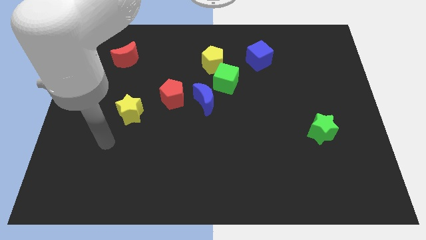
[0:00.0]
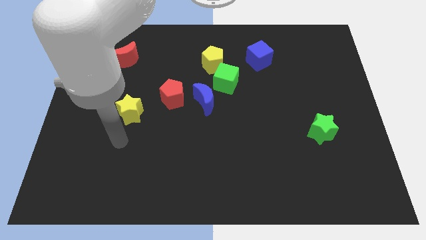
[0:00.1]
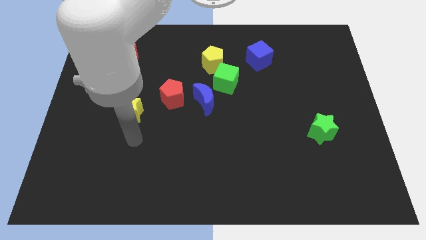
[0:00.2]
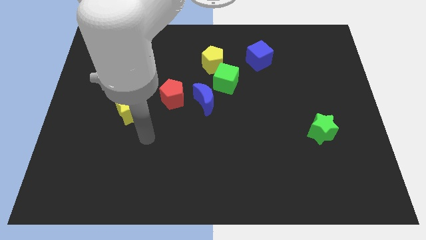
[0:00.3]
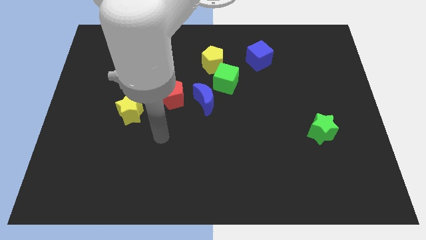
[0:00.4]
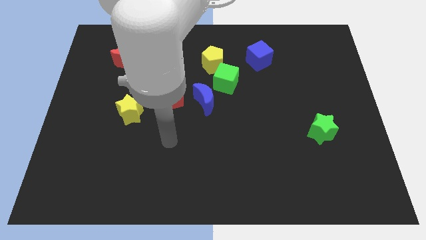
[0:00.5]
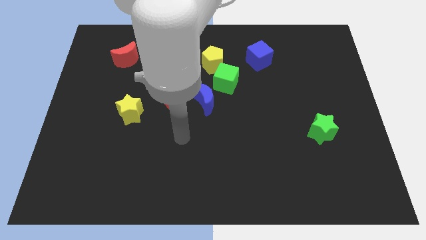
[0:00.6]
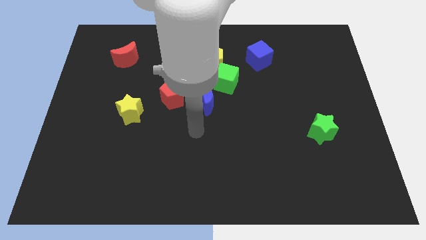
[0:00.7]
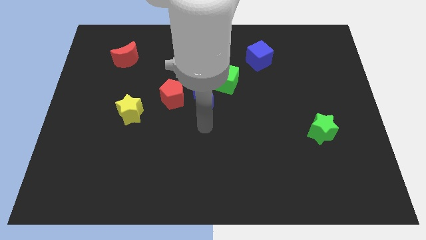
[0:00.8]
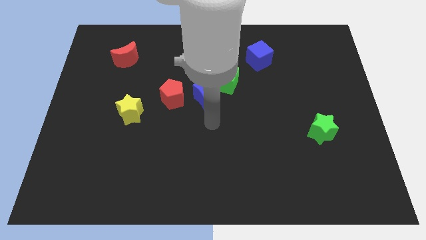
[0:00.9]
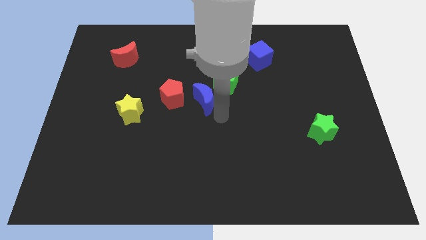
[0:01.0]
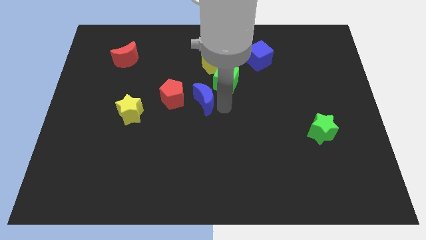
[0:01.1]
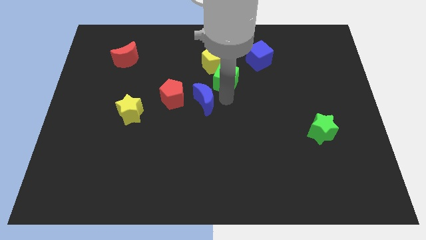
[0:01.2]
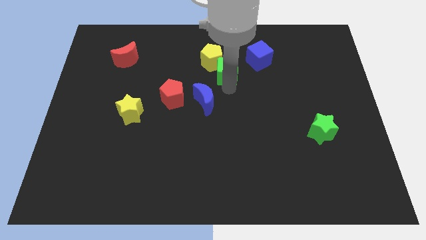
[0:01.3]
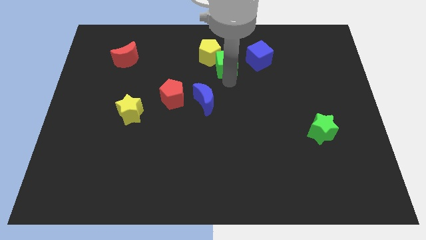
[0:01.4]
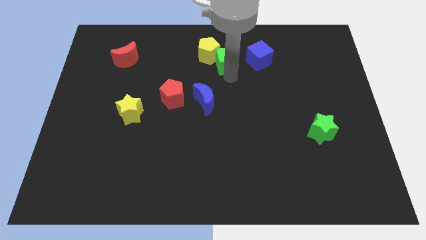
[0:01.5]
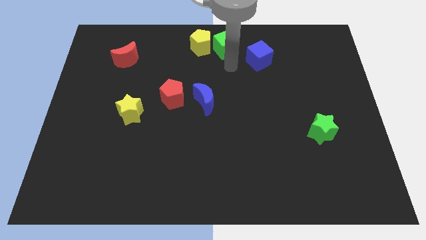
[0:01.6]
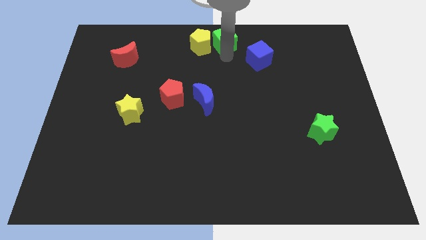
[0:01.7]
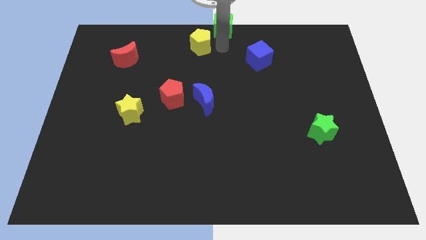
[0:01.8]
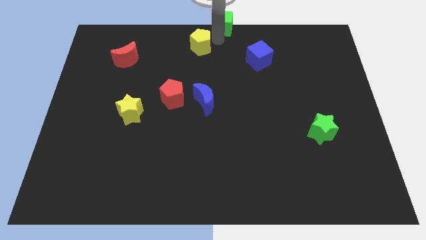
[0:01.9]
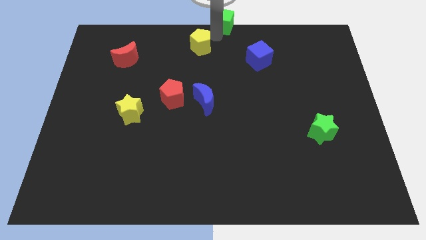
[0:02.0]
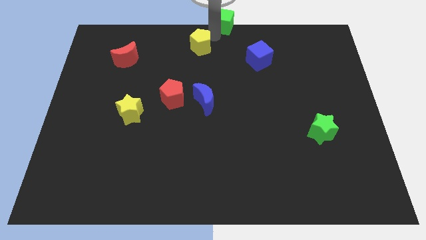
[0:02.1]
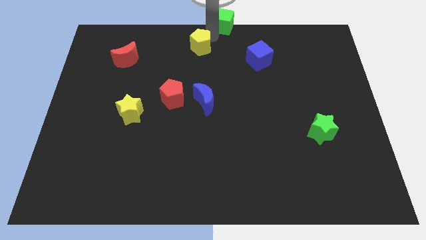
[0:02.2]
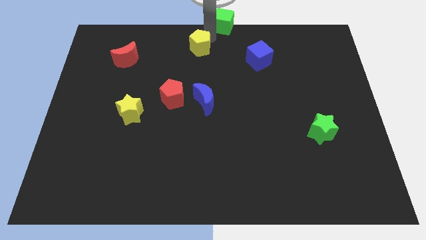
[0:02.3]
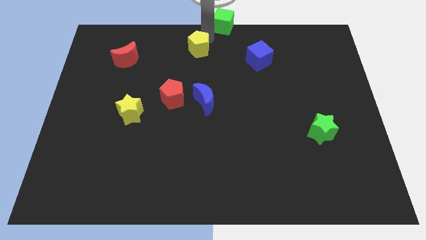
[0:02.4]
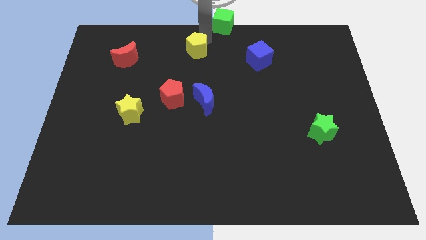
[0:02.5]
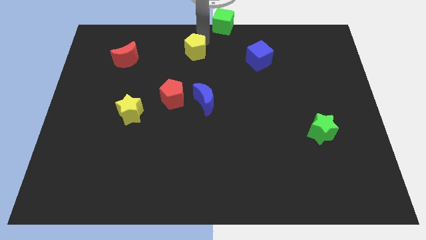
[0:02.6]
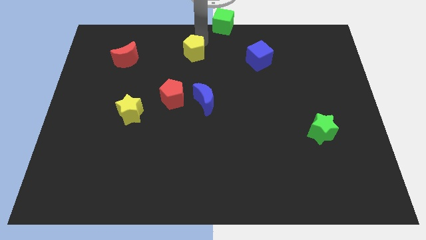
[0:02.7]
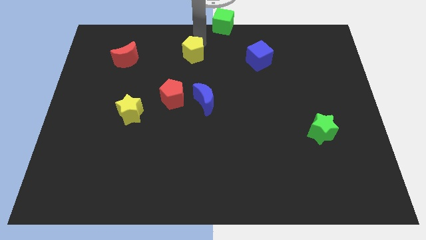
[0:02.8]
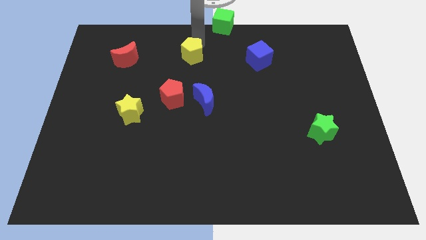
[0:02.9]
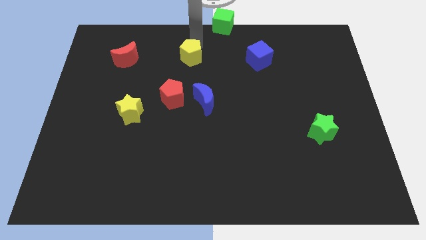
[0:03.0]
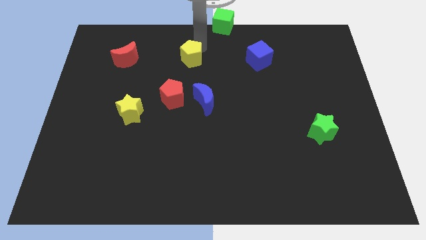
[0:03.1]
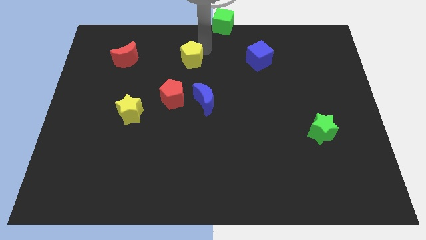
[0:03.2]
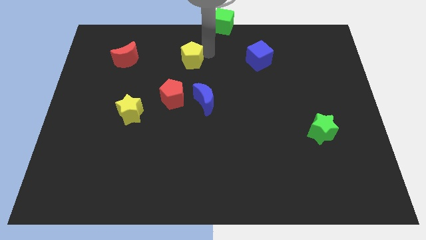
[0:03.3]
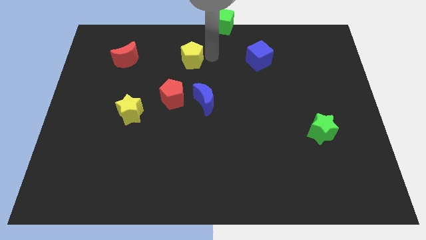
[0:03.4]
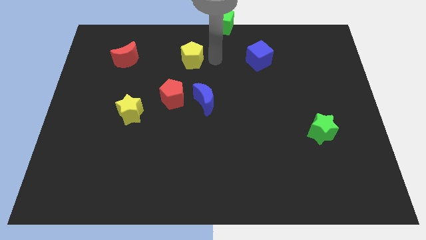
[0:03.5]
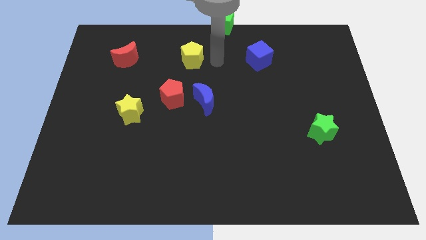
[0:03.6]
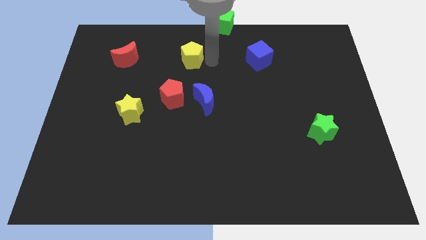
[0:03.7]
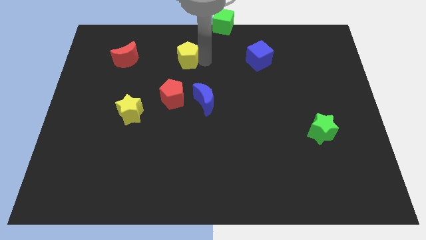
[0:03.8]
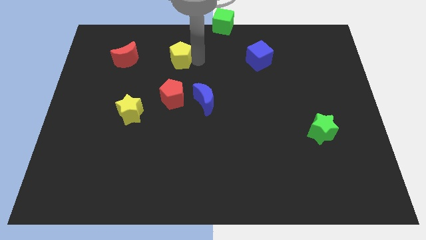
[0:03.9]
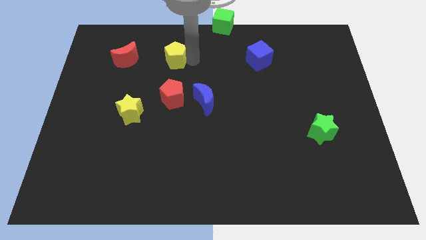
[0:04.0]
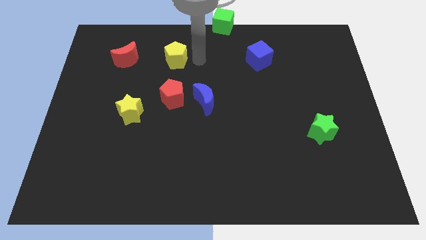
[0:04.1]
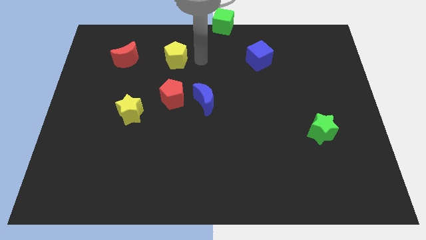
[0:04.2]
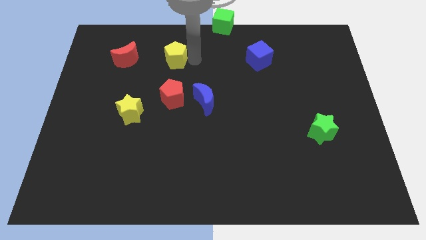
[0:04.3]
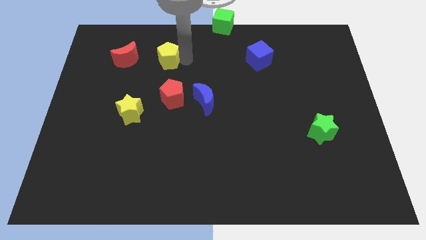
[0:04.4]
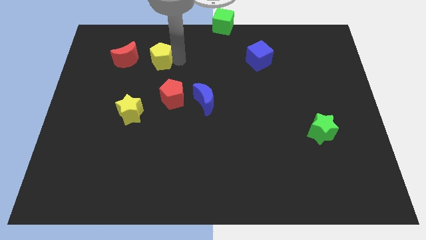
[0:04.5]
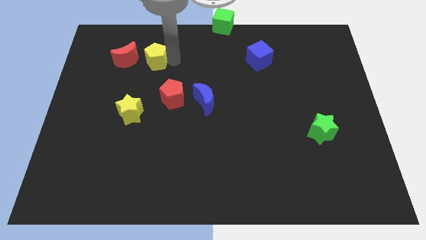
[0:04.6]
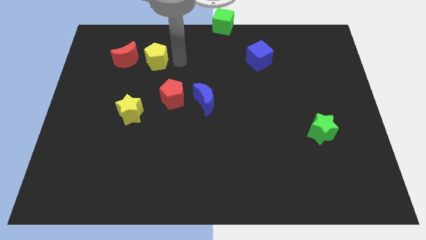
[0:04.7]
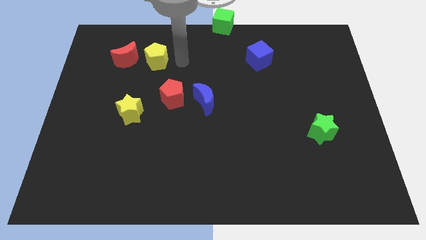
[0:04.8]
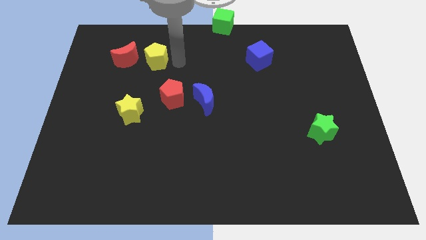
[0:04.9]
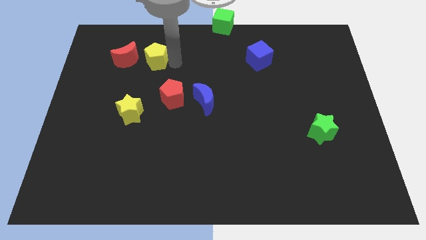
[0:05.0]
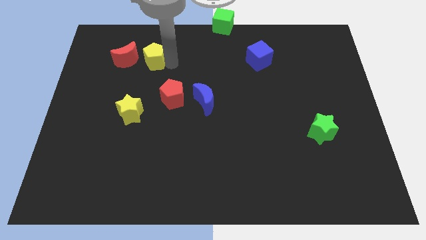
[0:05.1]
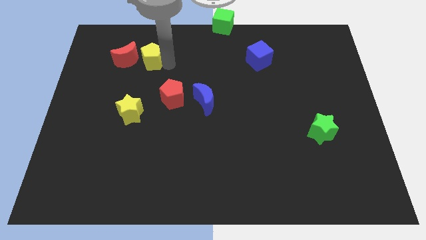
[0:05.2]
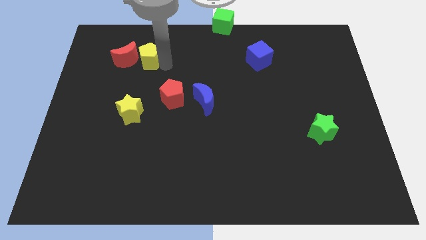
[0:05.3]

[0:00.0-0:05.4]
push the yellow pentagon next to the red moon

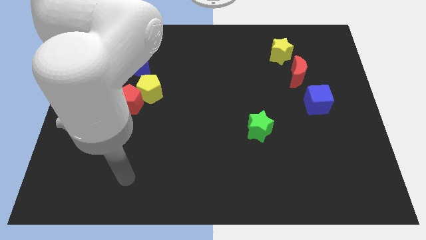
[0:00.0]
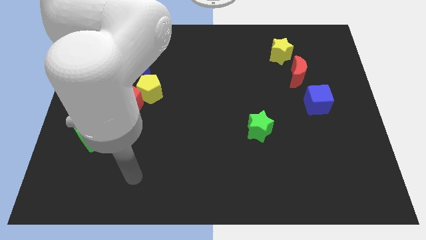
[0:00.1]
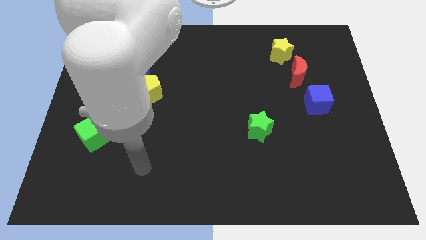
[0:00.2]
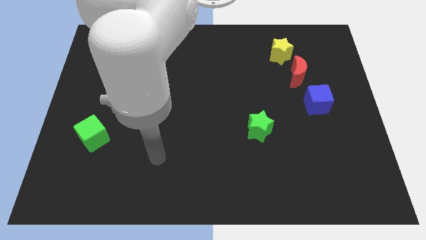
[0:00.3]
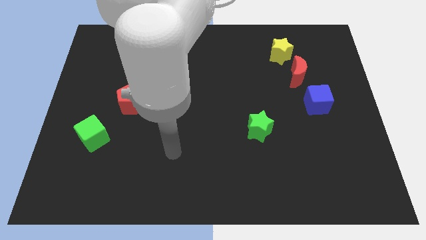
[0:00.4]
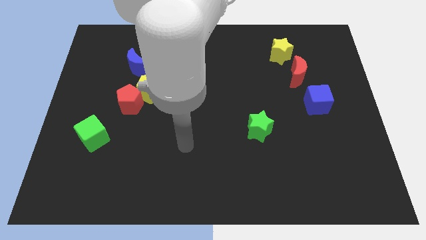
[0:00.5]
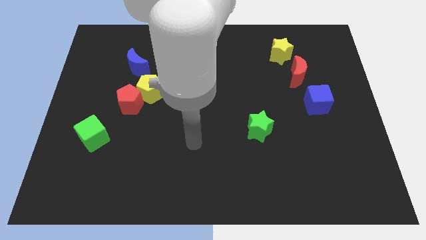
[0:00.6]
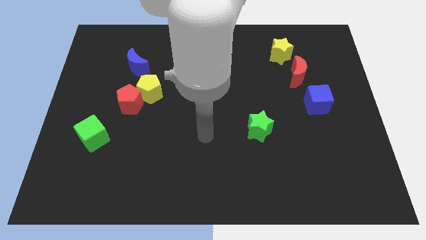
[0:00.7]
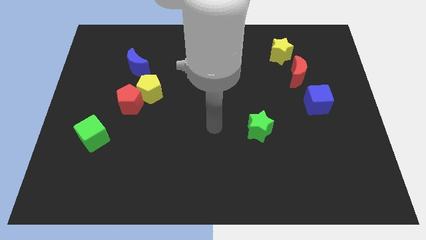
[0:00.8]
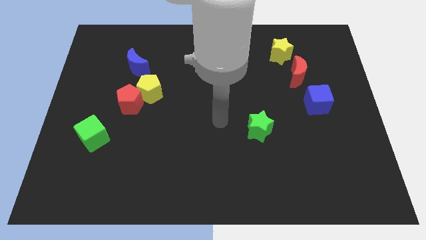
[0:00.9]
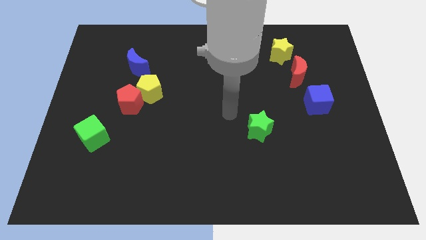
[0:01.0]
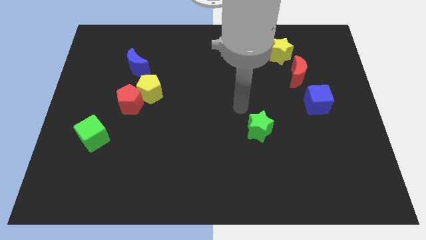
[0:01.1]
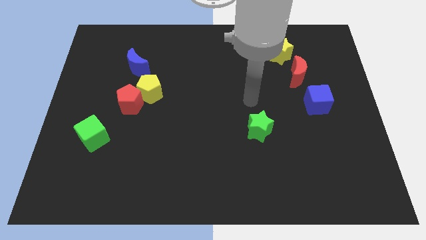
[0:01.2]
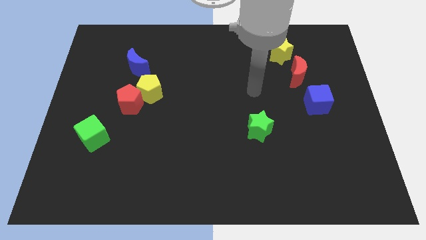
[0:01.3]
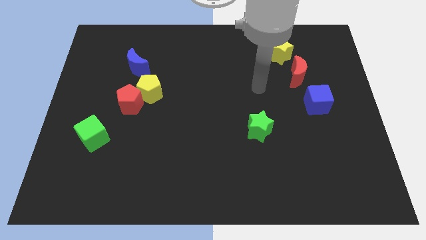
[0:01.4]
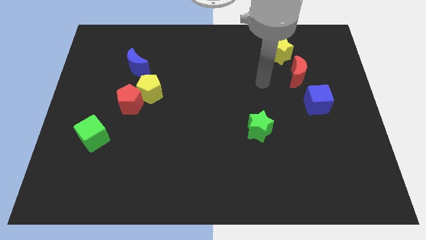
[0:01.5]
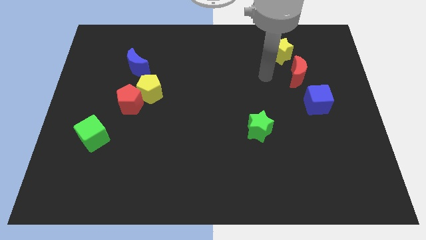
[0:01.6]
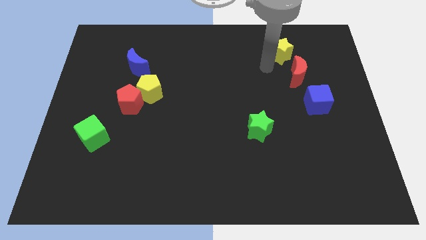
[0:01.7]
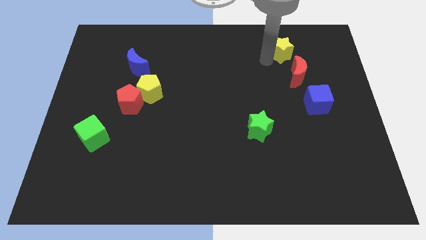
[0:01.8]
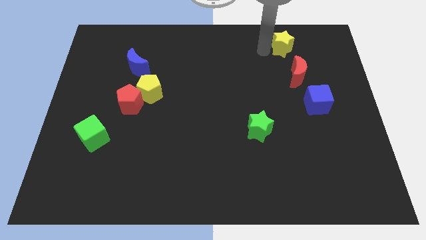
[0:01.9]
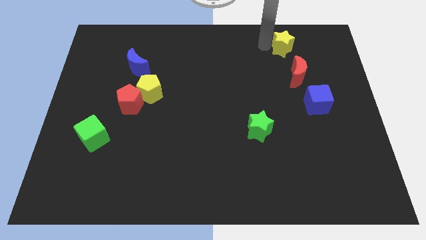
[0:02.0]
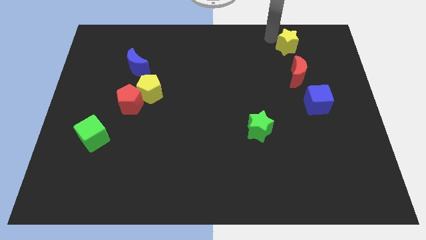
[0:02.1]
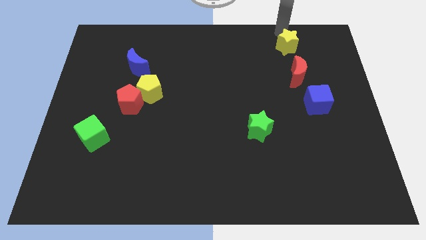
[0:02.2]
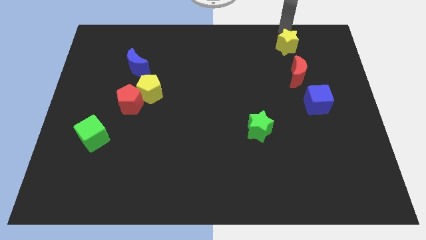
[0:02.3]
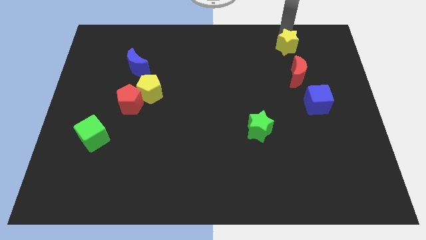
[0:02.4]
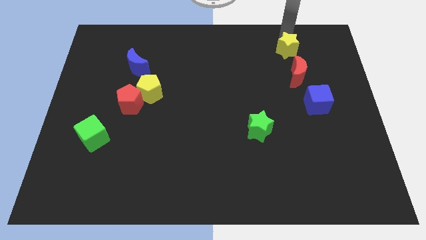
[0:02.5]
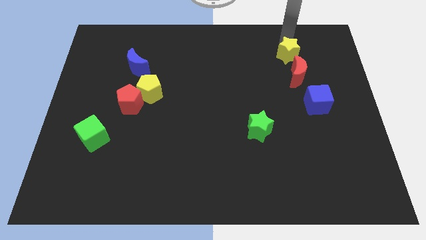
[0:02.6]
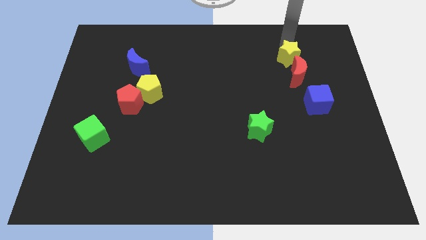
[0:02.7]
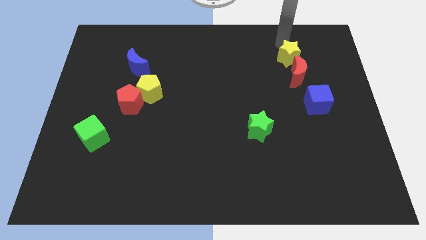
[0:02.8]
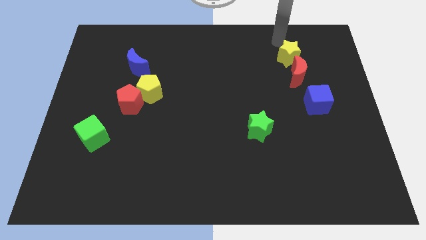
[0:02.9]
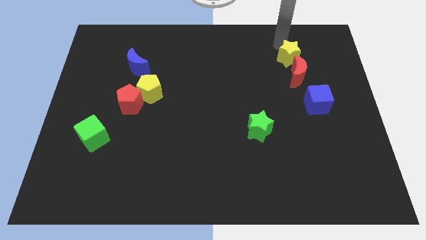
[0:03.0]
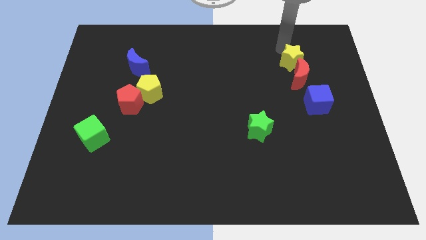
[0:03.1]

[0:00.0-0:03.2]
move the yellow star to the red moon
